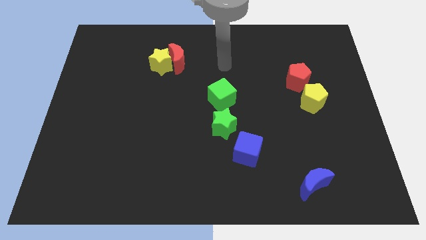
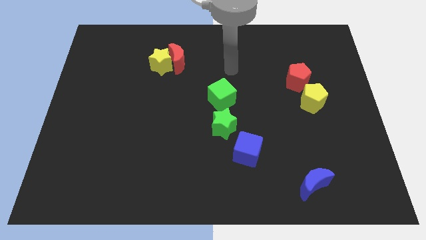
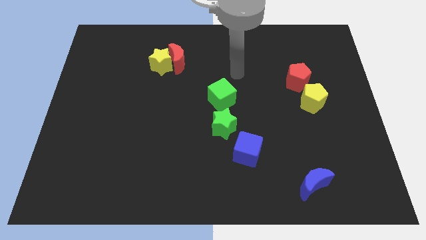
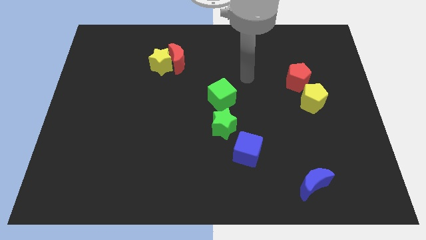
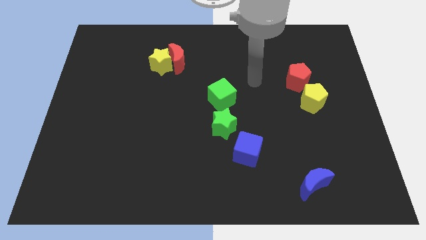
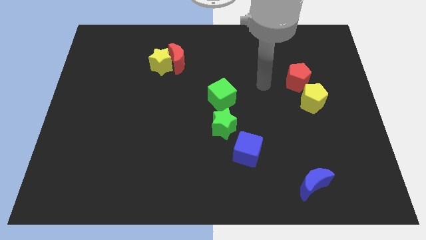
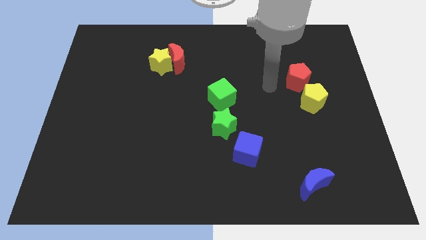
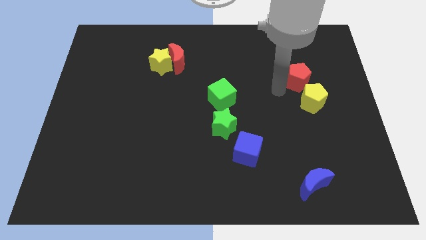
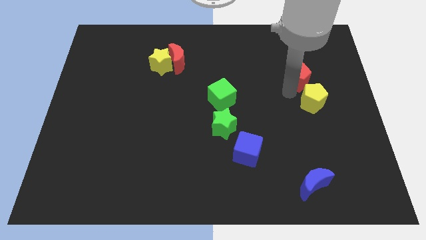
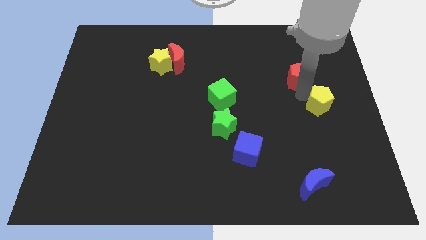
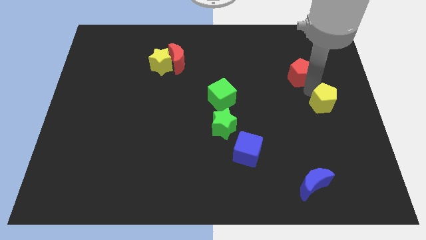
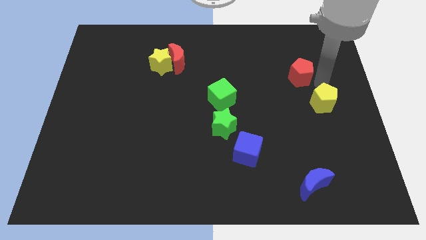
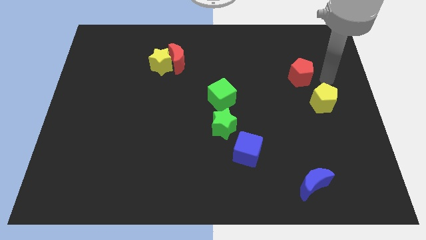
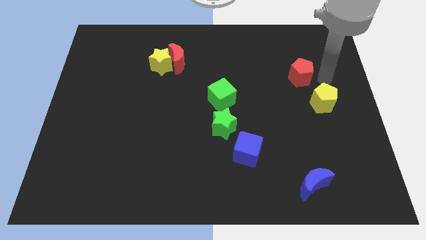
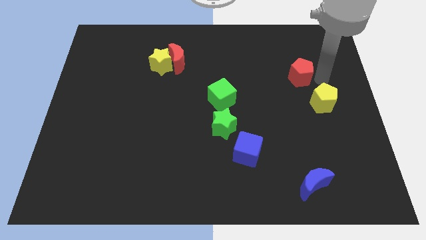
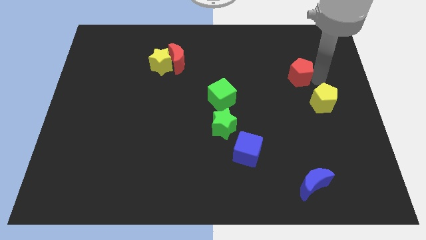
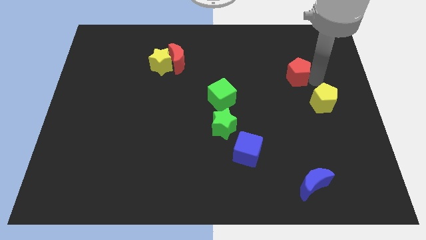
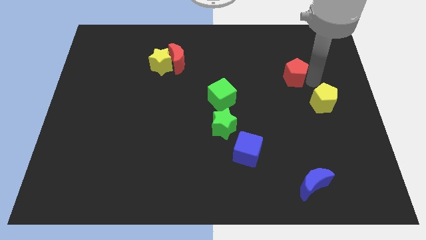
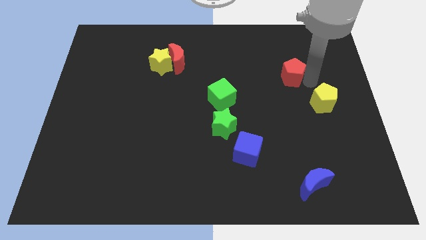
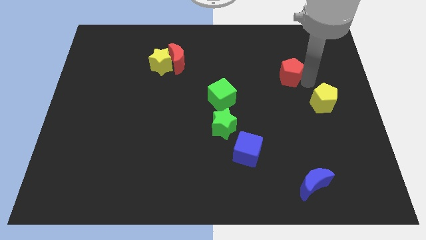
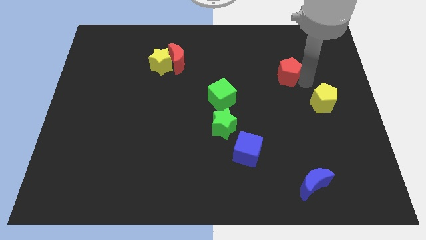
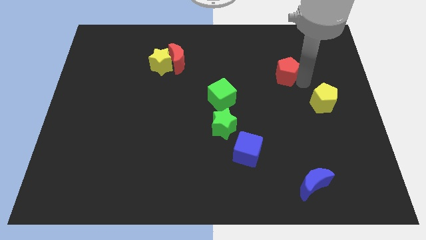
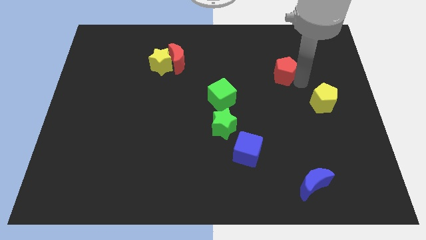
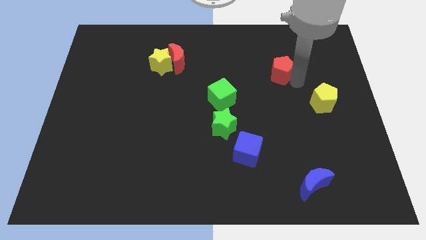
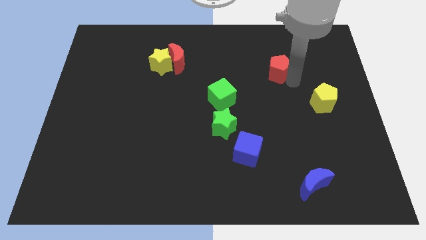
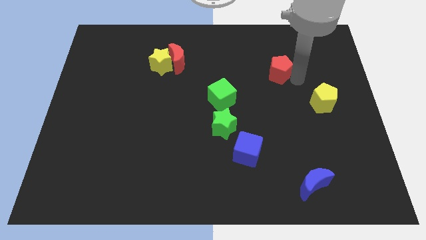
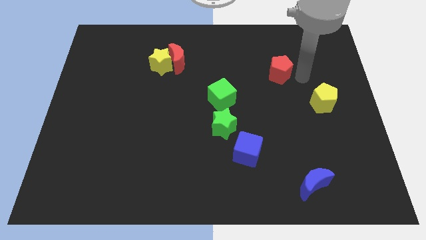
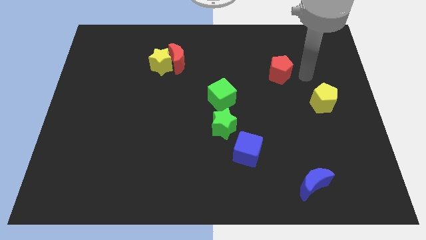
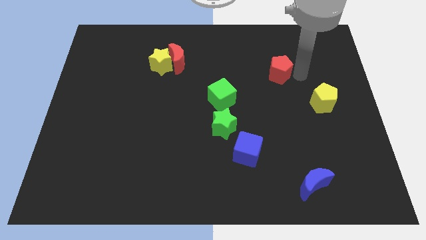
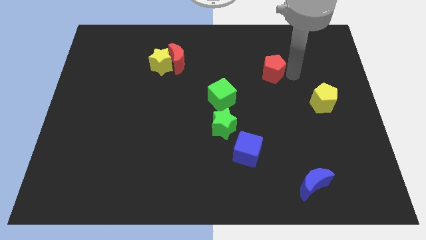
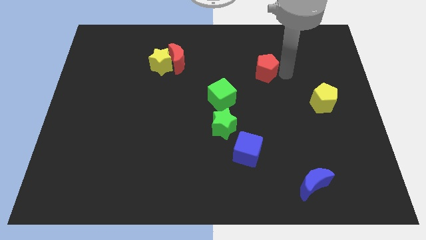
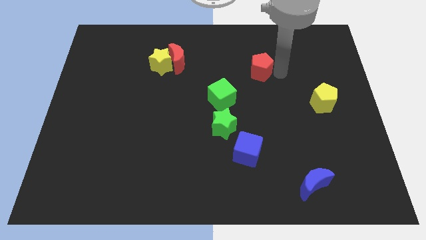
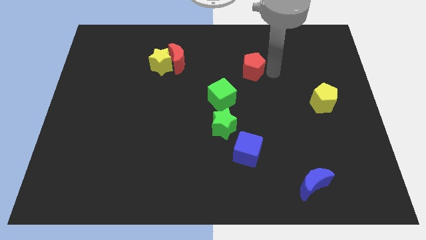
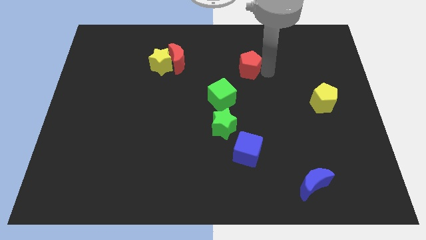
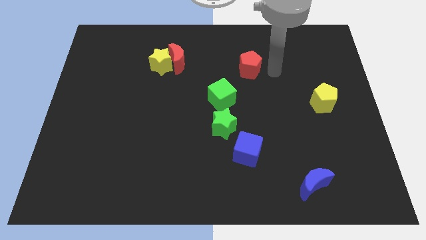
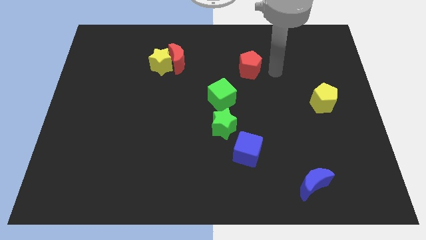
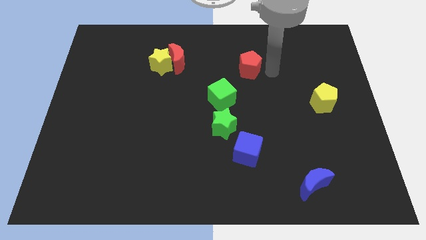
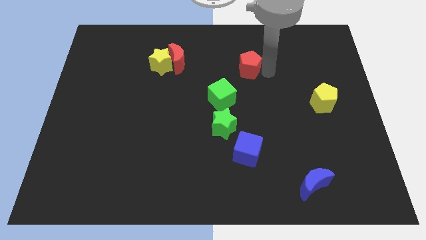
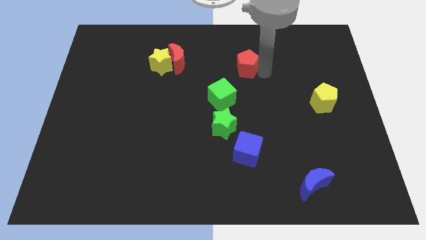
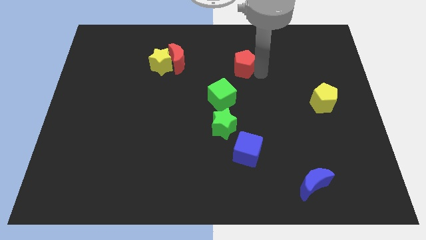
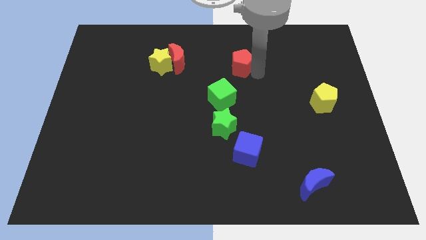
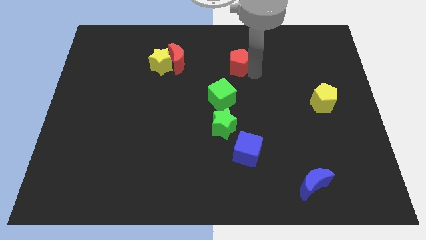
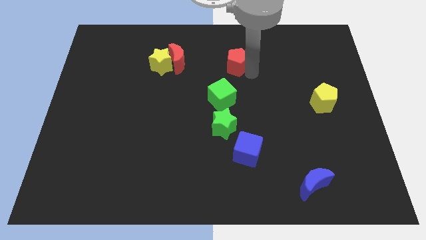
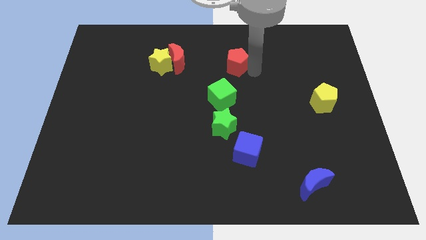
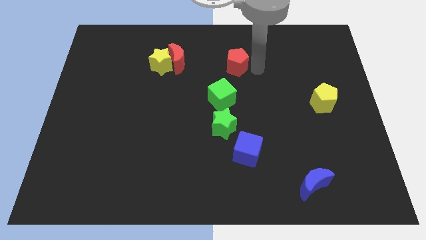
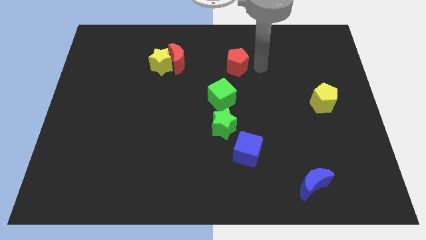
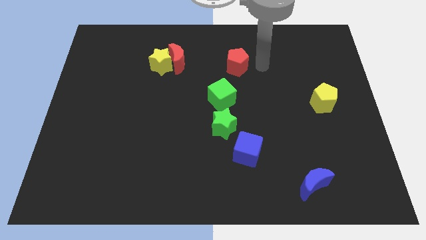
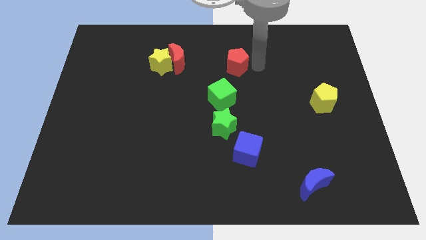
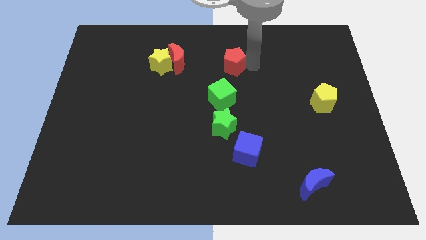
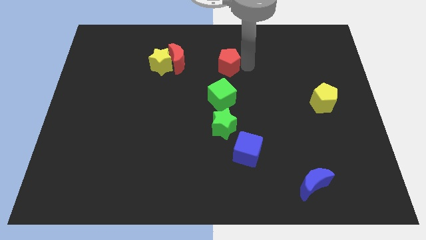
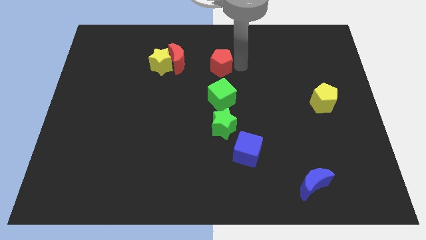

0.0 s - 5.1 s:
put the red pentagon to the right side of the yellow star

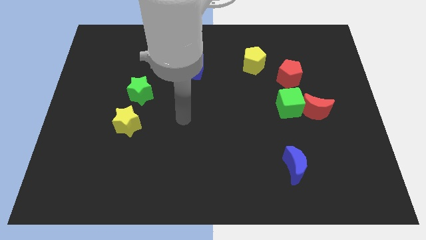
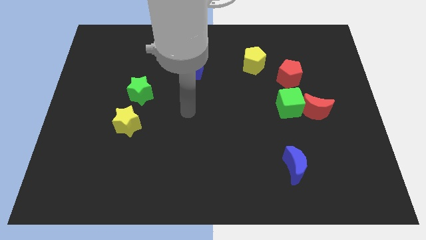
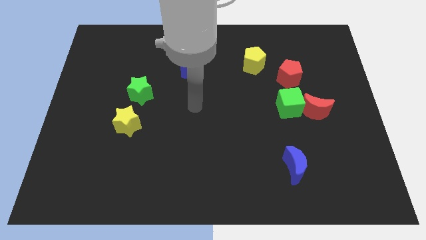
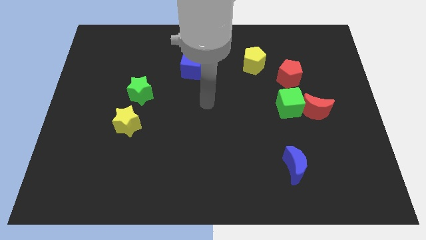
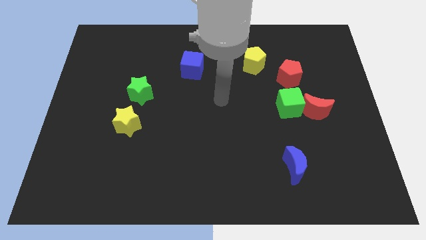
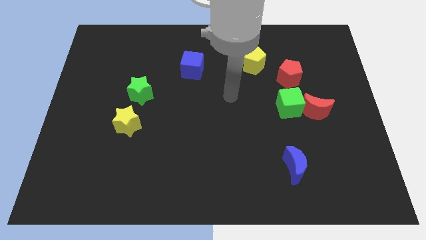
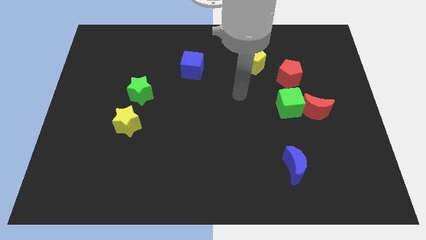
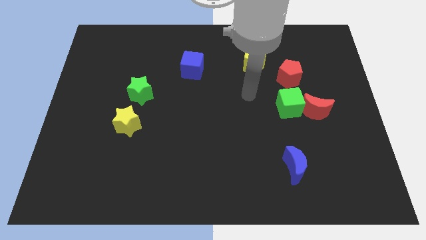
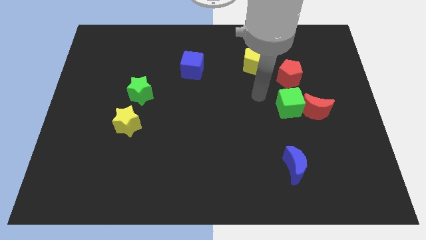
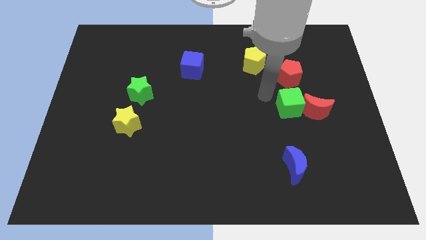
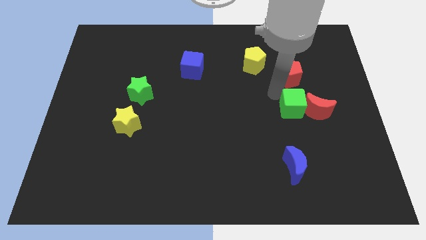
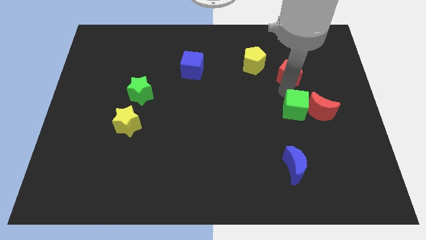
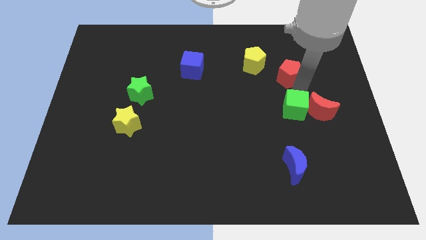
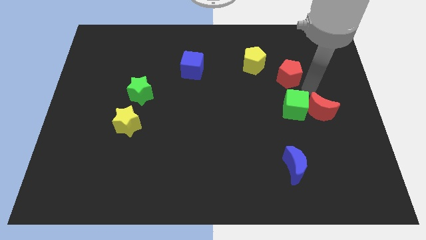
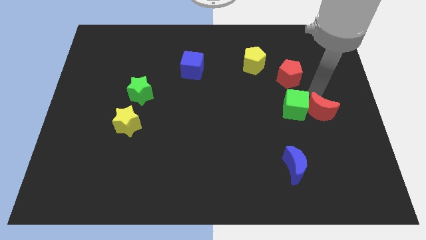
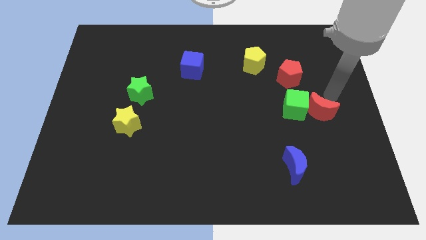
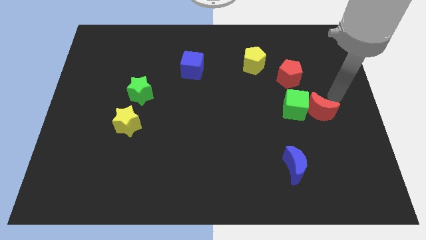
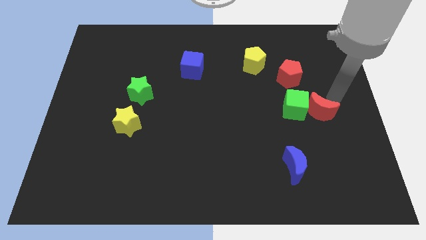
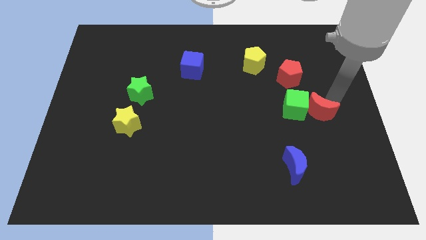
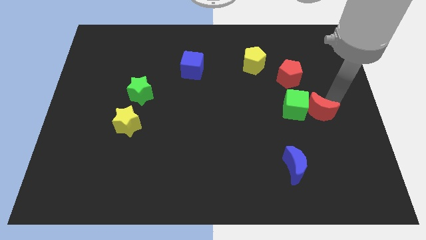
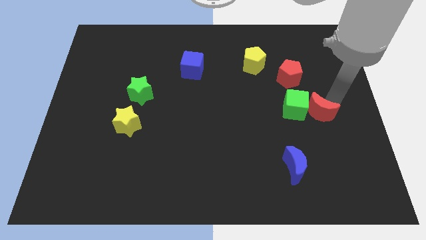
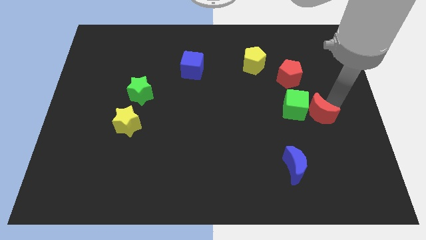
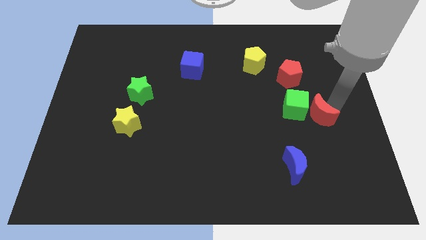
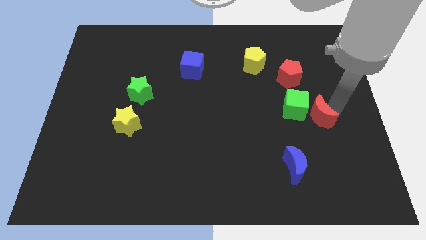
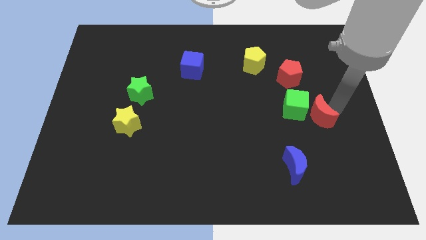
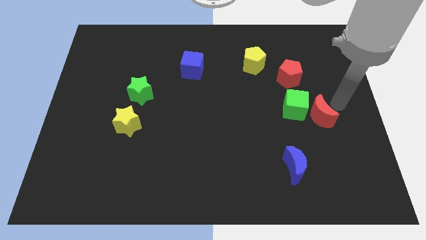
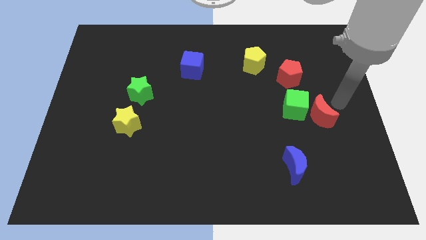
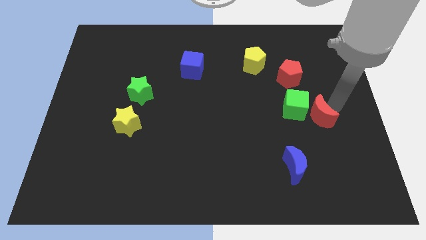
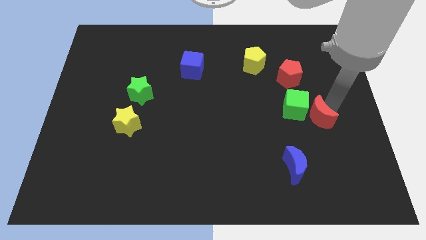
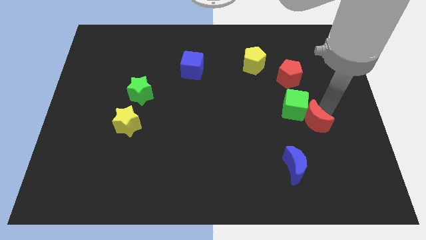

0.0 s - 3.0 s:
push the red moon to the bottom of the green cube
